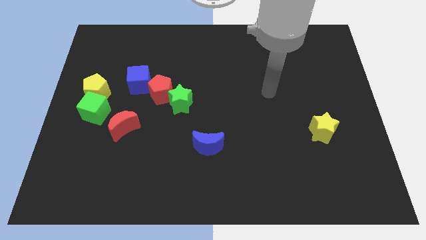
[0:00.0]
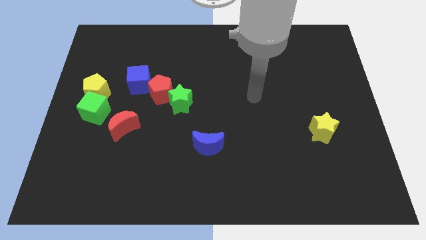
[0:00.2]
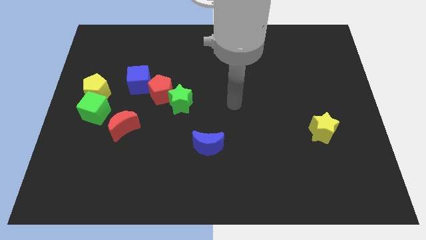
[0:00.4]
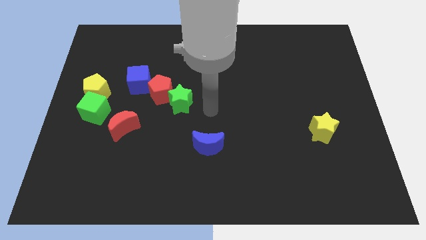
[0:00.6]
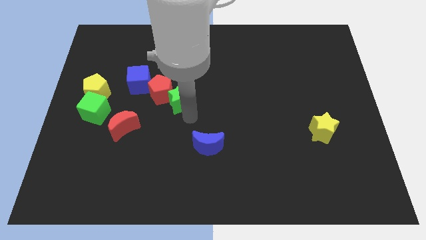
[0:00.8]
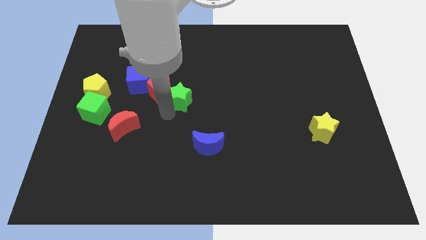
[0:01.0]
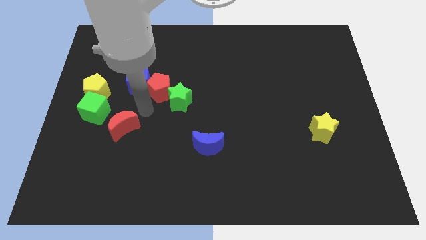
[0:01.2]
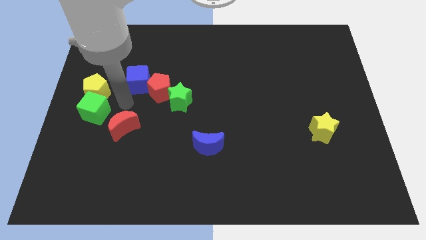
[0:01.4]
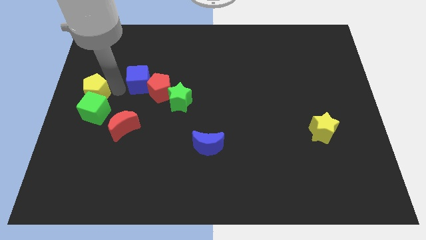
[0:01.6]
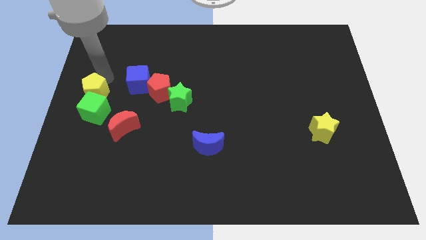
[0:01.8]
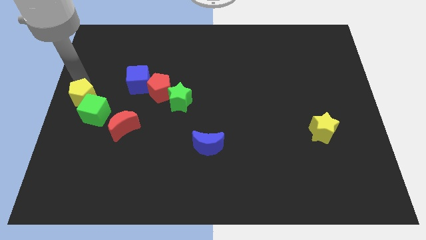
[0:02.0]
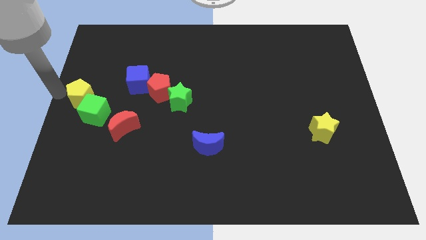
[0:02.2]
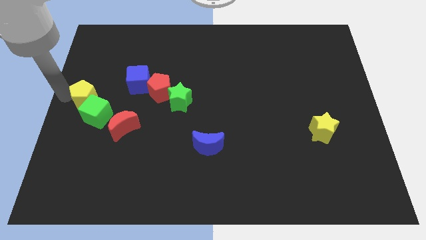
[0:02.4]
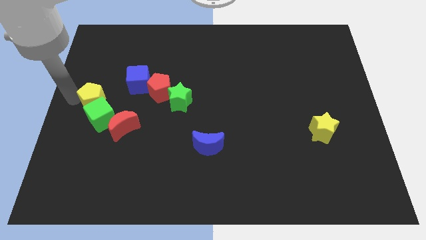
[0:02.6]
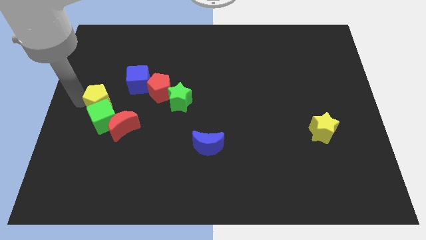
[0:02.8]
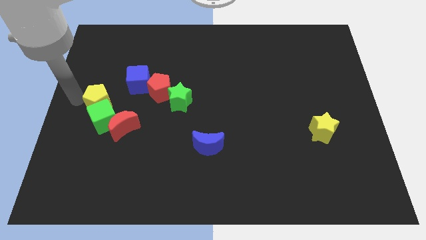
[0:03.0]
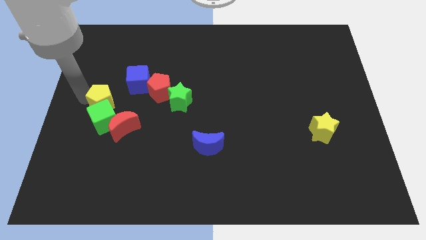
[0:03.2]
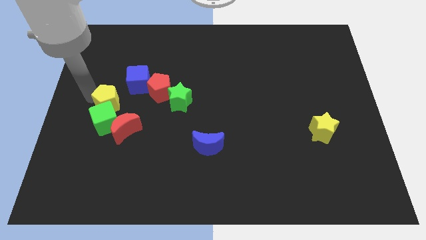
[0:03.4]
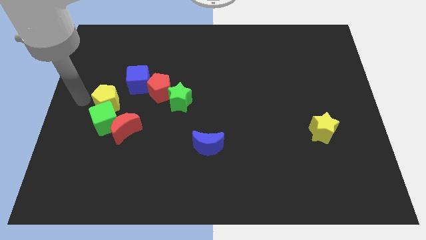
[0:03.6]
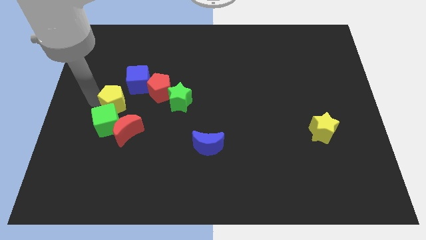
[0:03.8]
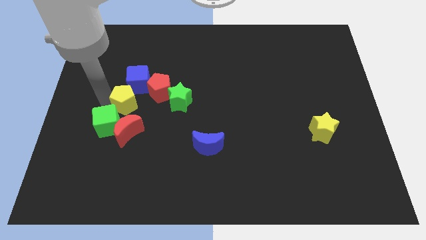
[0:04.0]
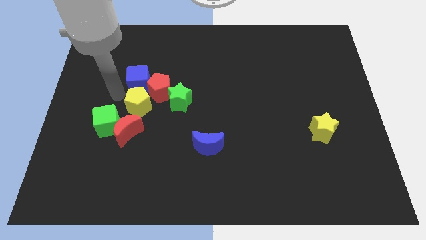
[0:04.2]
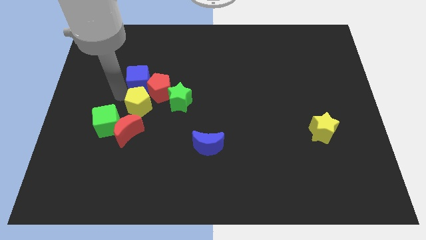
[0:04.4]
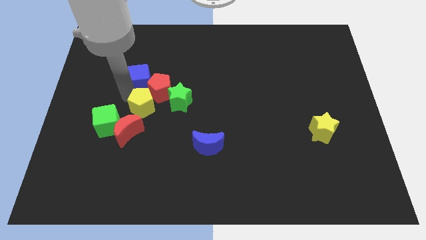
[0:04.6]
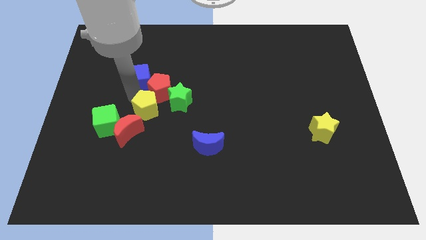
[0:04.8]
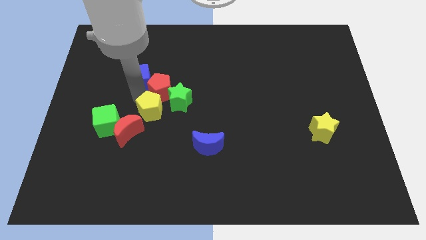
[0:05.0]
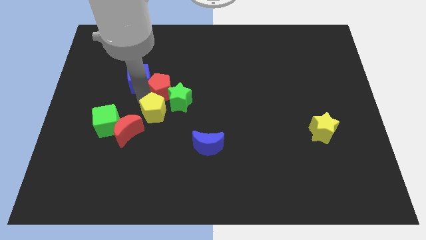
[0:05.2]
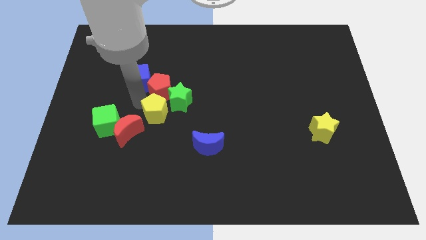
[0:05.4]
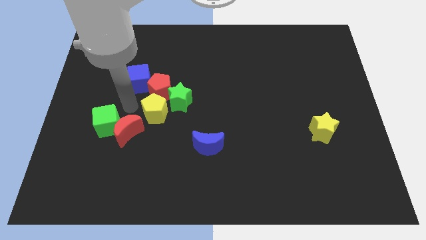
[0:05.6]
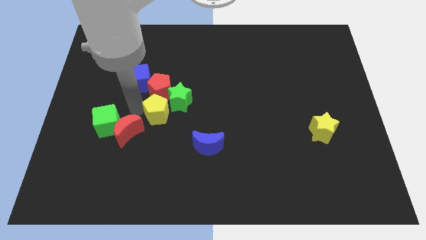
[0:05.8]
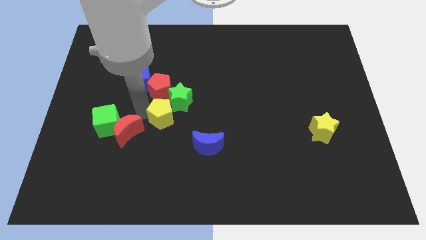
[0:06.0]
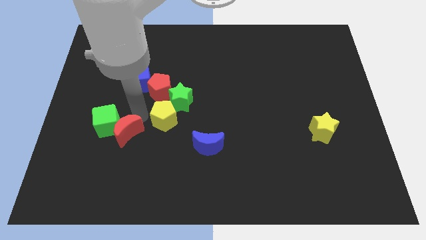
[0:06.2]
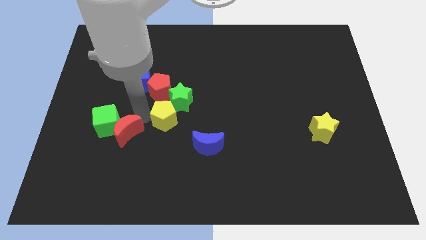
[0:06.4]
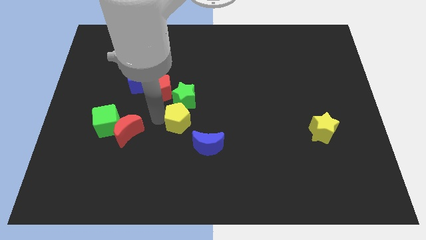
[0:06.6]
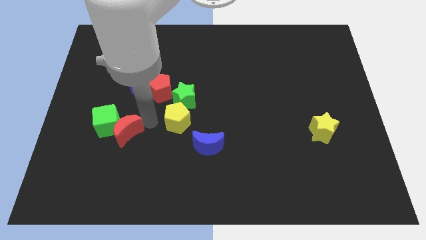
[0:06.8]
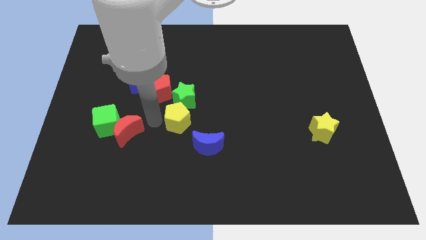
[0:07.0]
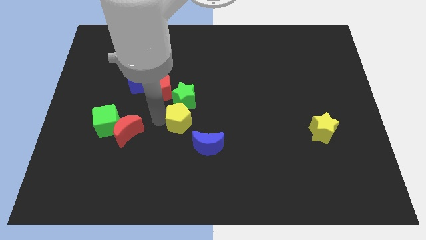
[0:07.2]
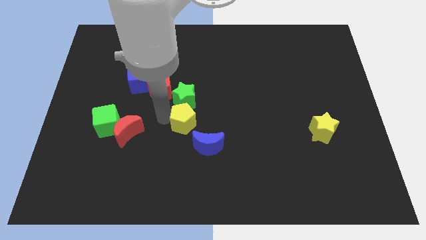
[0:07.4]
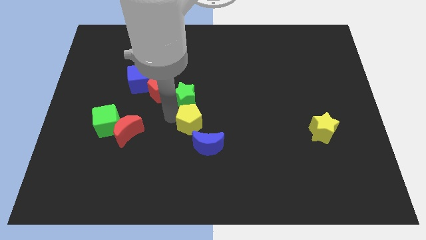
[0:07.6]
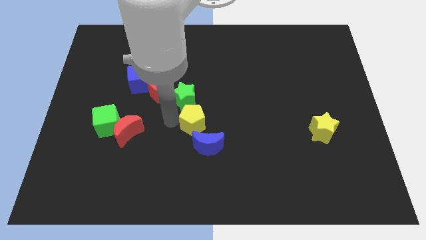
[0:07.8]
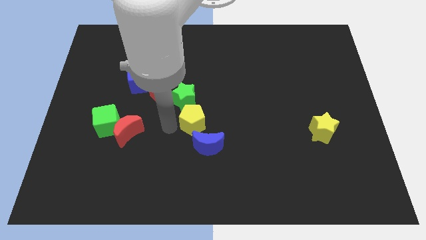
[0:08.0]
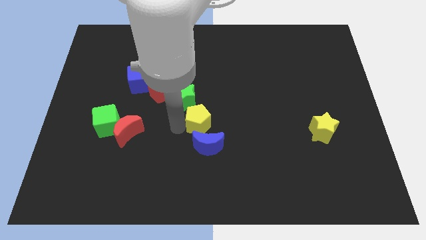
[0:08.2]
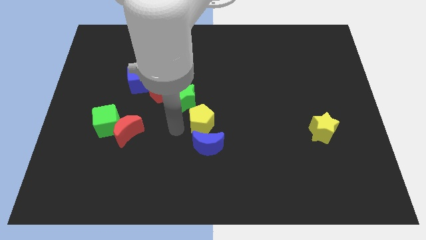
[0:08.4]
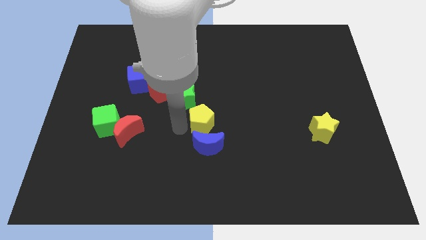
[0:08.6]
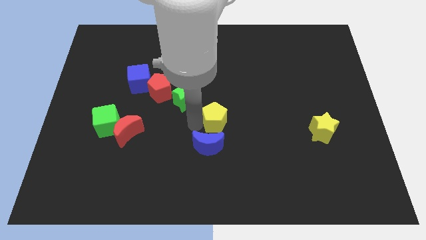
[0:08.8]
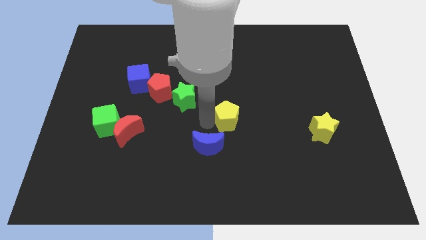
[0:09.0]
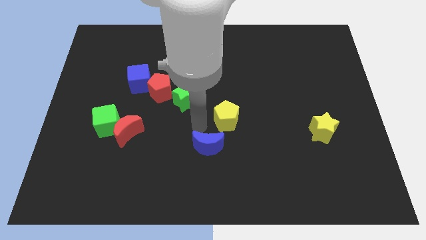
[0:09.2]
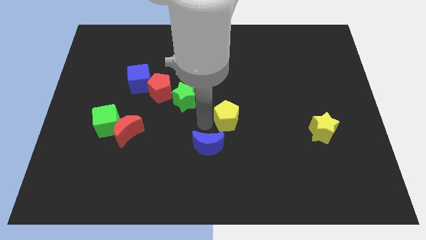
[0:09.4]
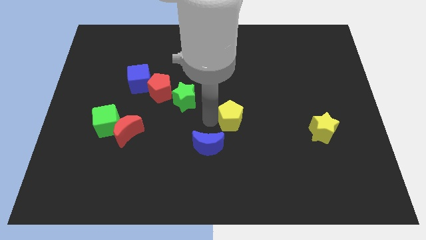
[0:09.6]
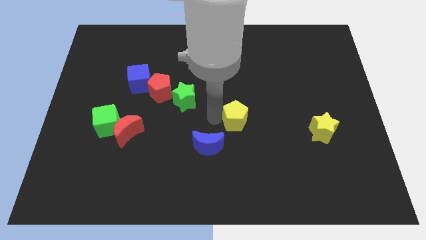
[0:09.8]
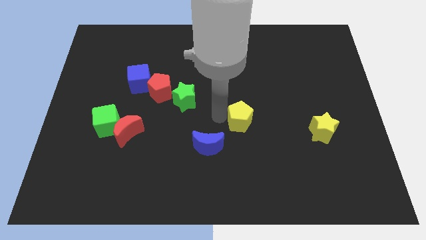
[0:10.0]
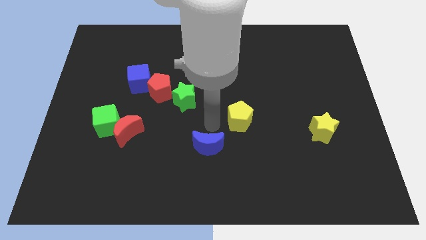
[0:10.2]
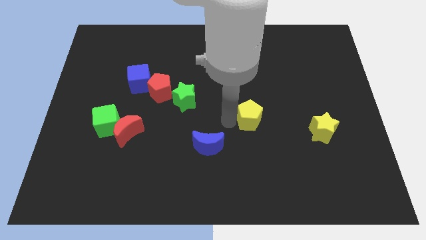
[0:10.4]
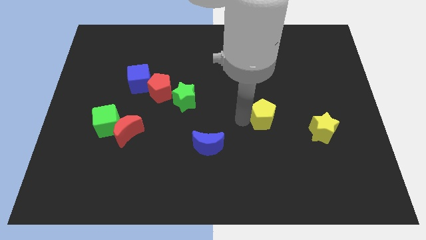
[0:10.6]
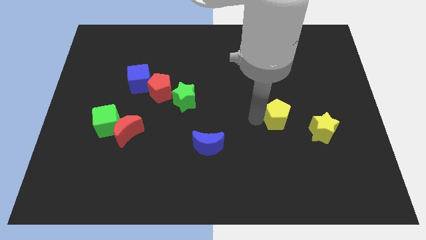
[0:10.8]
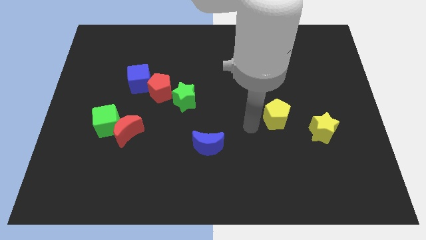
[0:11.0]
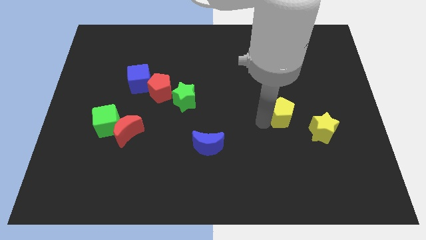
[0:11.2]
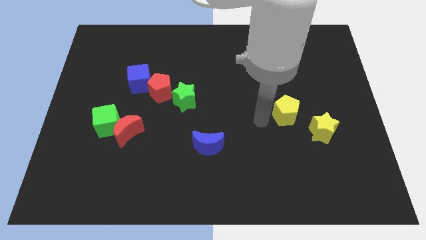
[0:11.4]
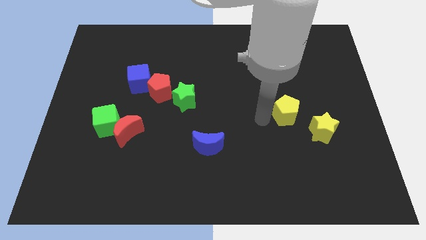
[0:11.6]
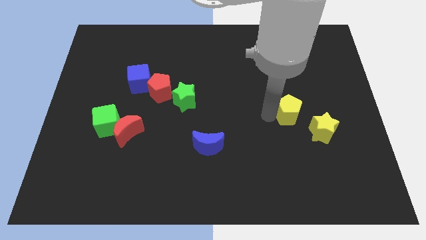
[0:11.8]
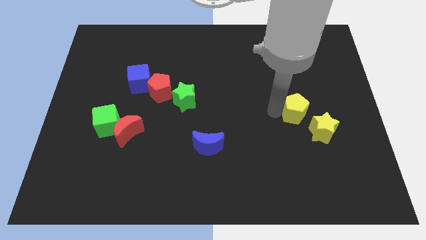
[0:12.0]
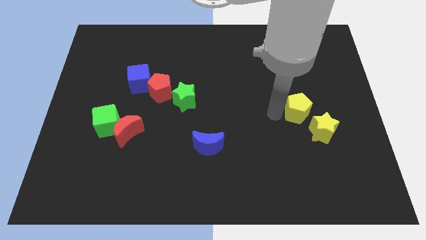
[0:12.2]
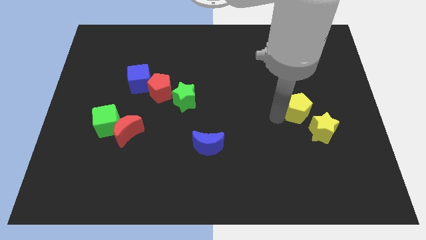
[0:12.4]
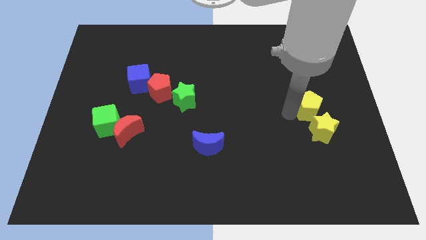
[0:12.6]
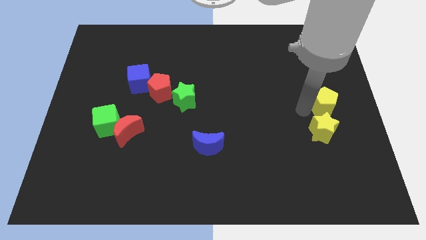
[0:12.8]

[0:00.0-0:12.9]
move the yellow pentagon to the right side
